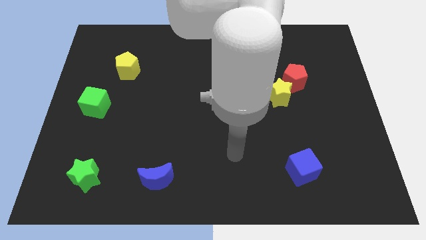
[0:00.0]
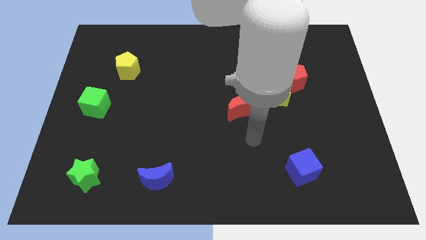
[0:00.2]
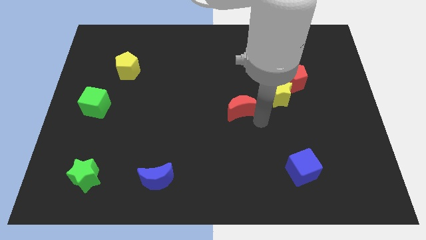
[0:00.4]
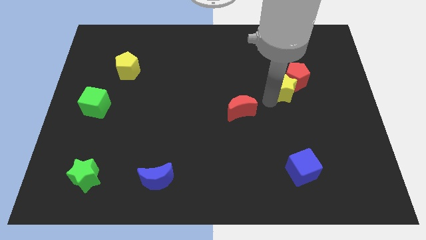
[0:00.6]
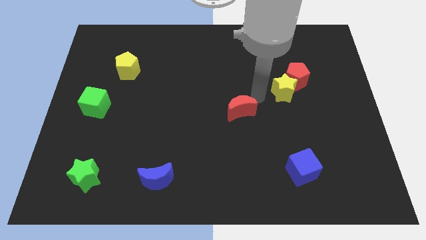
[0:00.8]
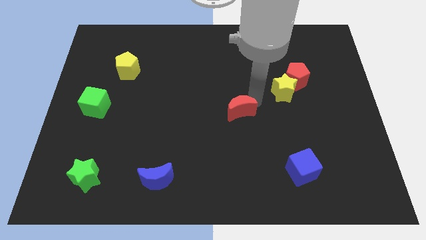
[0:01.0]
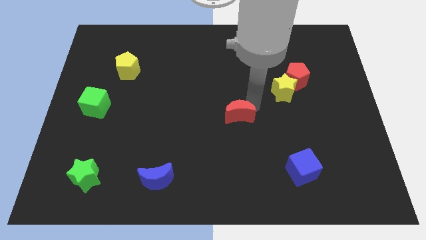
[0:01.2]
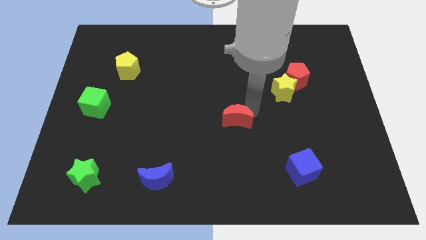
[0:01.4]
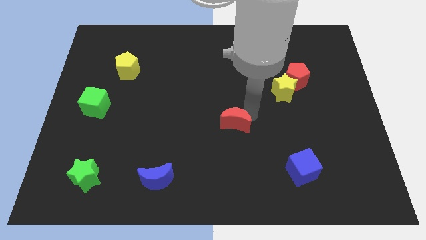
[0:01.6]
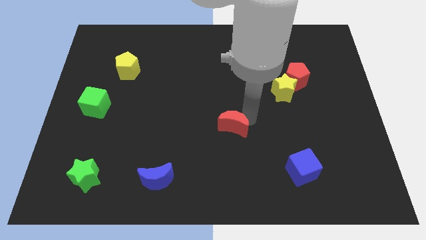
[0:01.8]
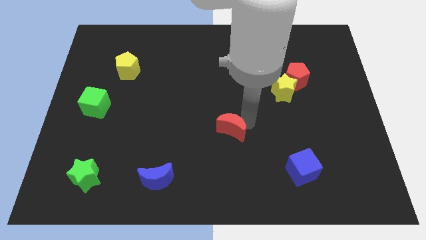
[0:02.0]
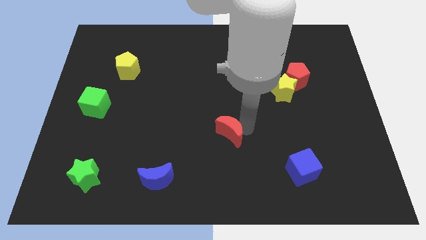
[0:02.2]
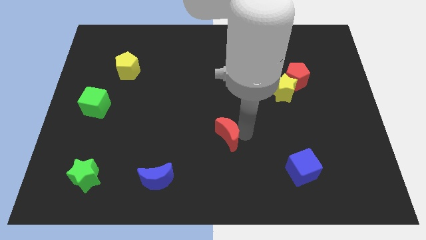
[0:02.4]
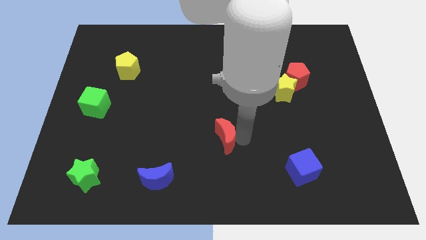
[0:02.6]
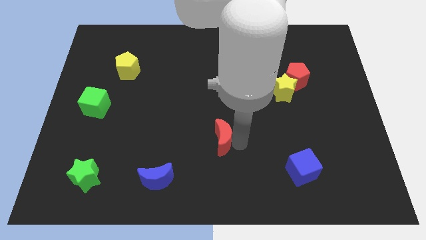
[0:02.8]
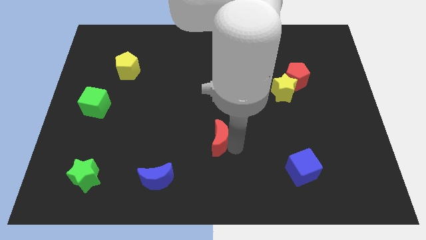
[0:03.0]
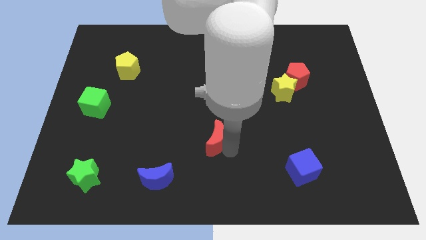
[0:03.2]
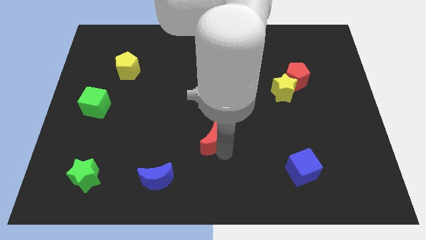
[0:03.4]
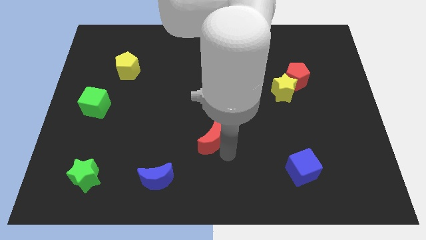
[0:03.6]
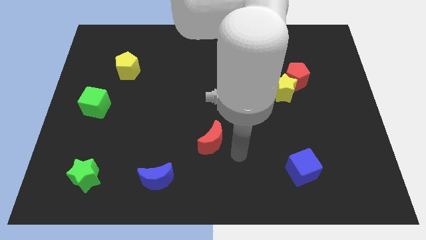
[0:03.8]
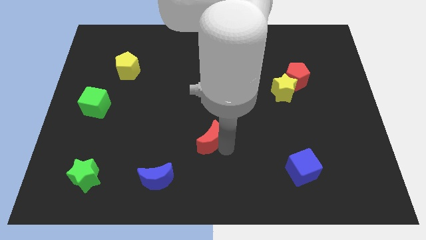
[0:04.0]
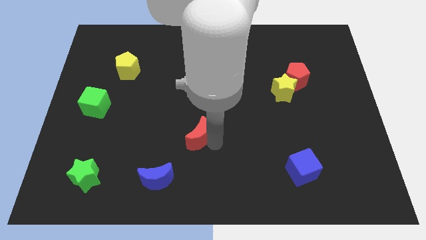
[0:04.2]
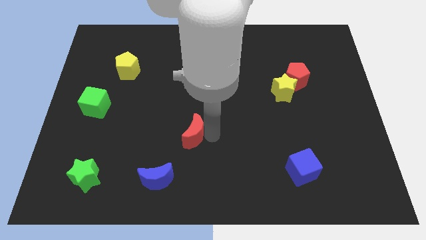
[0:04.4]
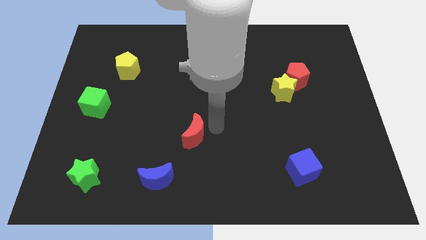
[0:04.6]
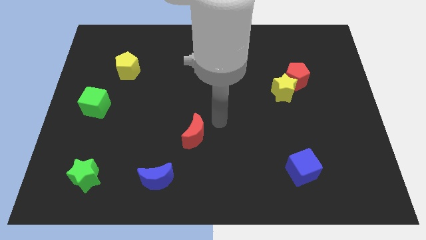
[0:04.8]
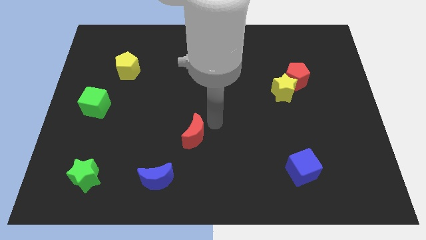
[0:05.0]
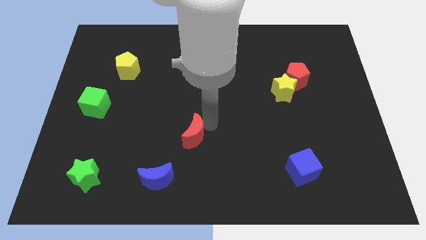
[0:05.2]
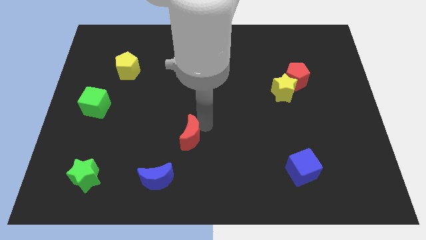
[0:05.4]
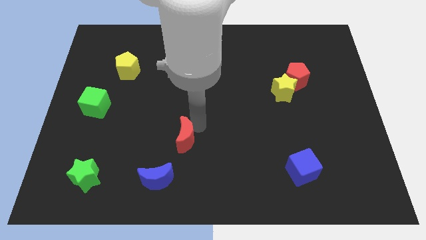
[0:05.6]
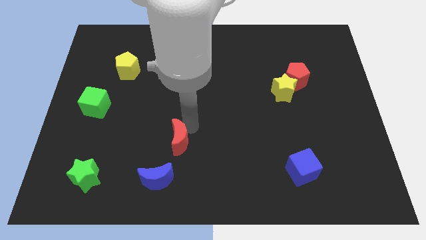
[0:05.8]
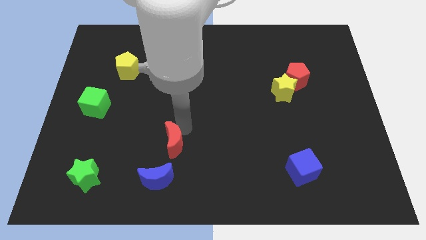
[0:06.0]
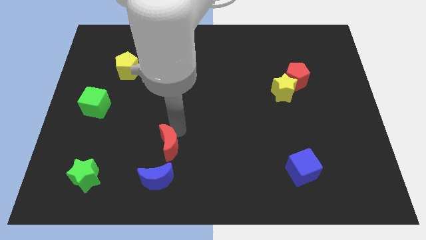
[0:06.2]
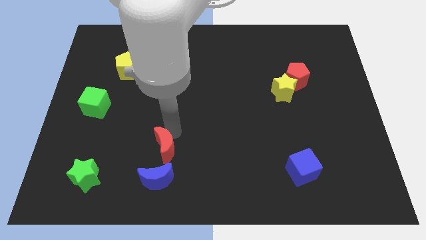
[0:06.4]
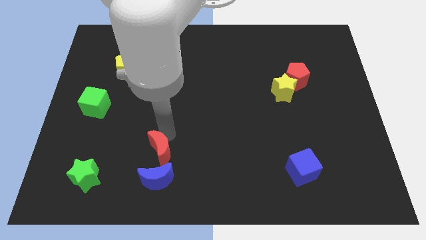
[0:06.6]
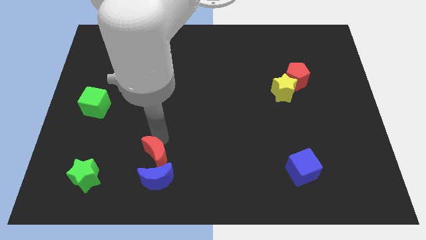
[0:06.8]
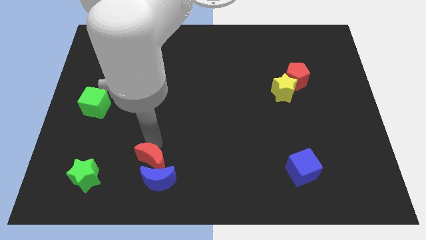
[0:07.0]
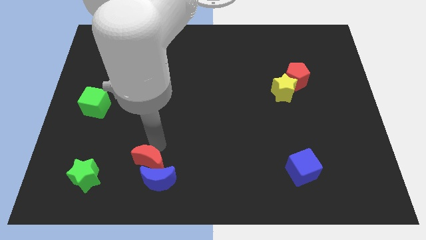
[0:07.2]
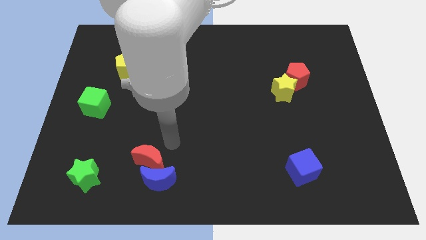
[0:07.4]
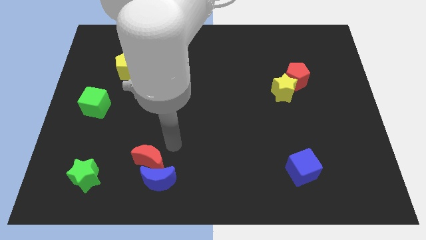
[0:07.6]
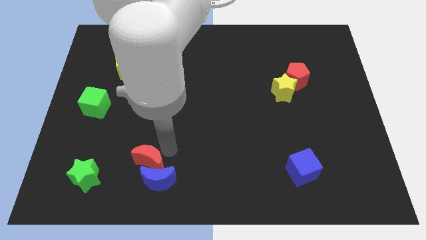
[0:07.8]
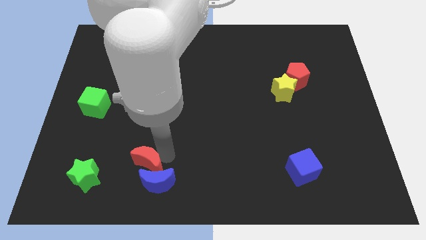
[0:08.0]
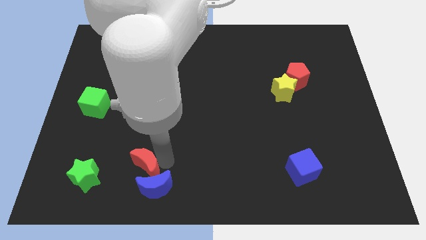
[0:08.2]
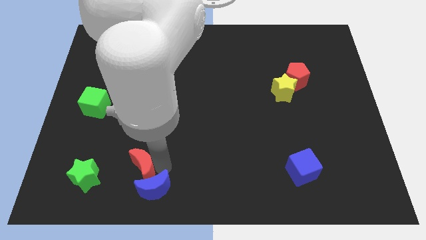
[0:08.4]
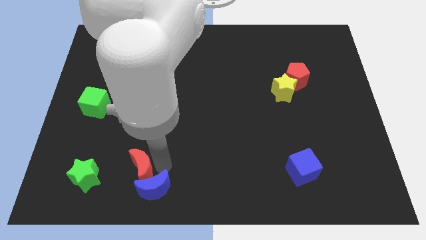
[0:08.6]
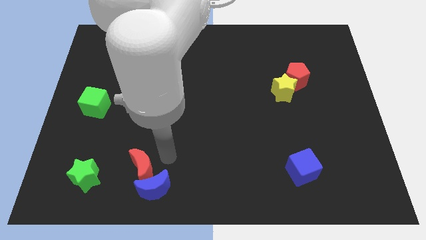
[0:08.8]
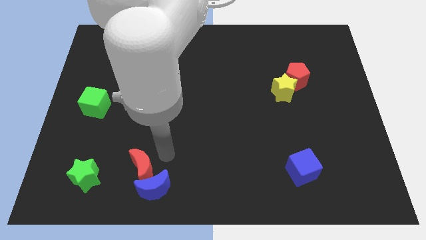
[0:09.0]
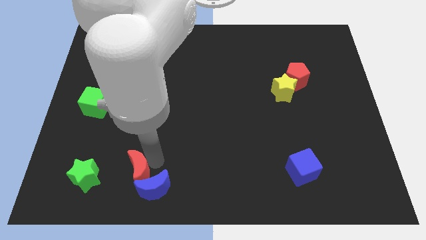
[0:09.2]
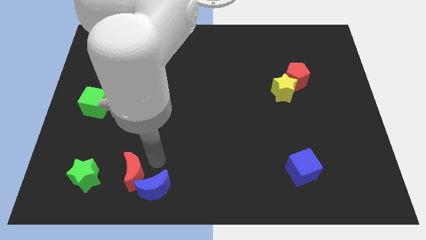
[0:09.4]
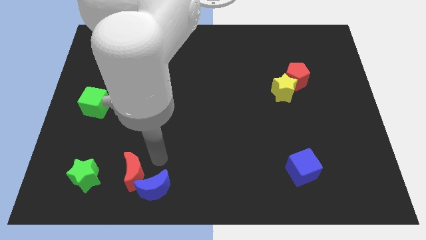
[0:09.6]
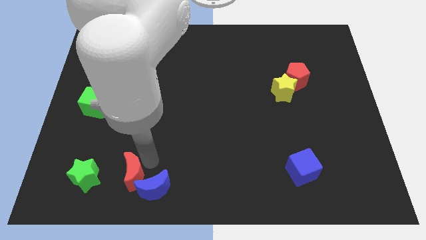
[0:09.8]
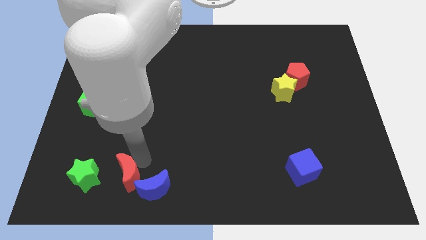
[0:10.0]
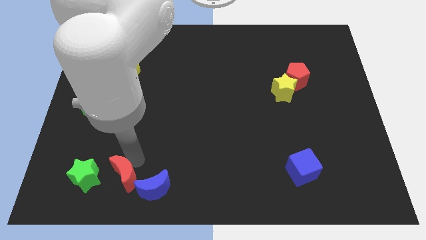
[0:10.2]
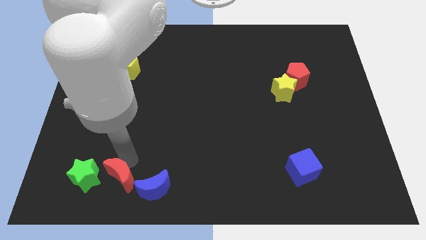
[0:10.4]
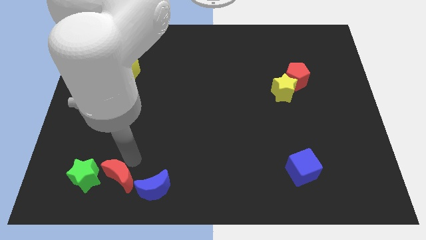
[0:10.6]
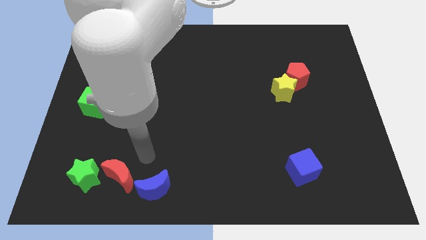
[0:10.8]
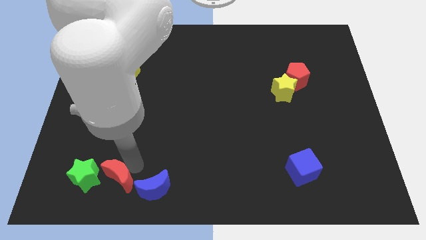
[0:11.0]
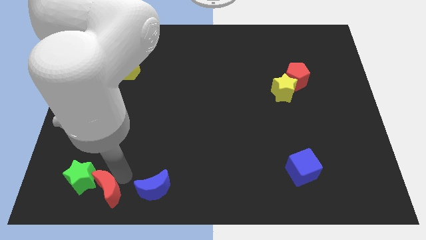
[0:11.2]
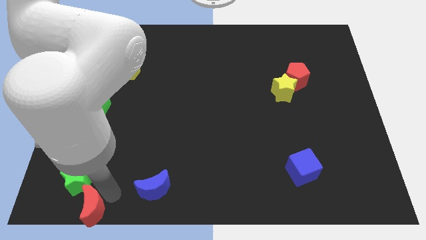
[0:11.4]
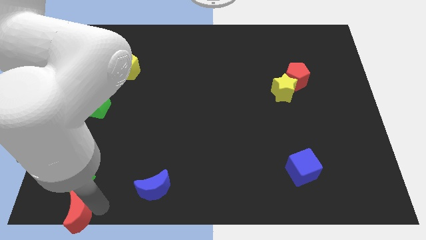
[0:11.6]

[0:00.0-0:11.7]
slide the red moon to the bottom left corner

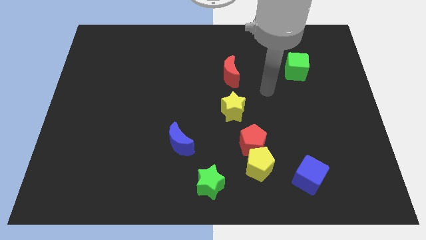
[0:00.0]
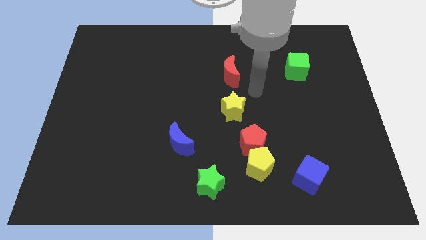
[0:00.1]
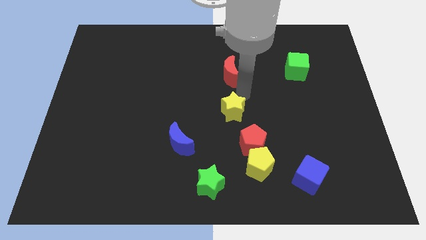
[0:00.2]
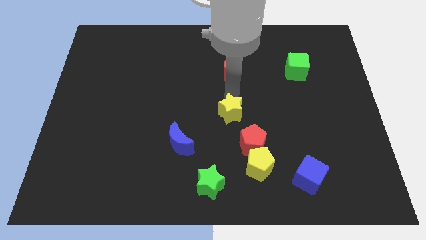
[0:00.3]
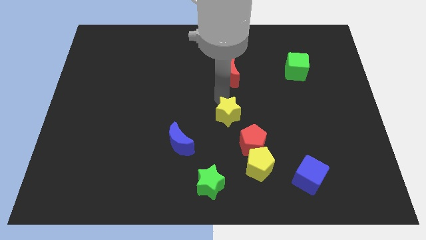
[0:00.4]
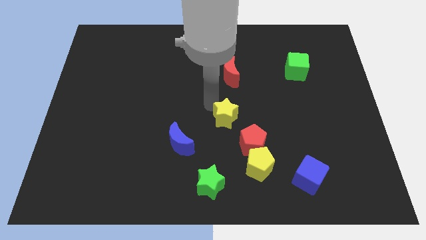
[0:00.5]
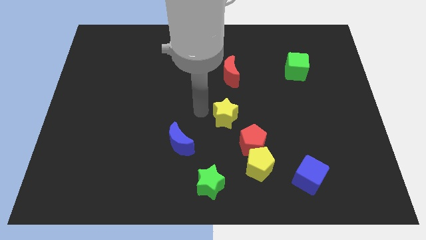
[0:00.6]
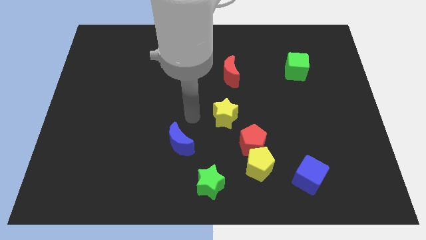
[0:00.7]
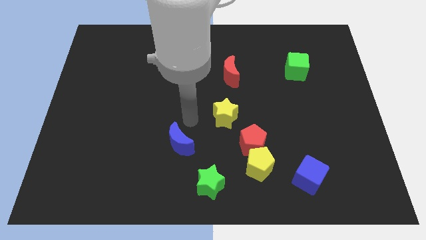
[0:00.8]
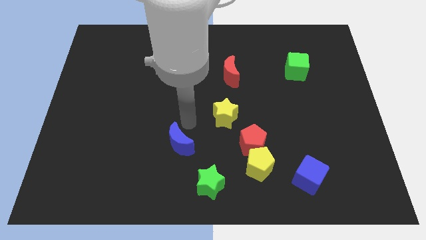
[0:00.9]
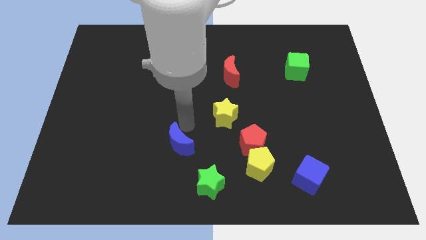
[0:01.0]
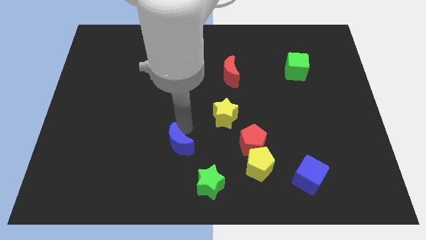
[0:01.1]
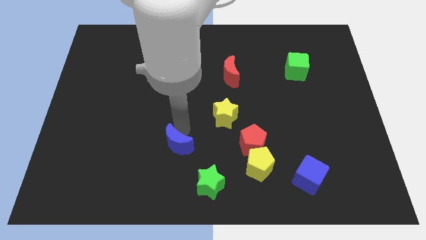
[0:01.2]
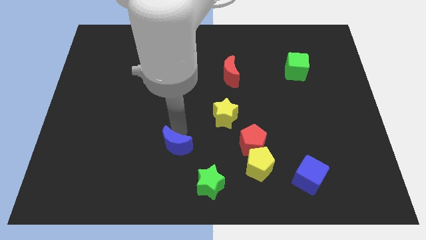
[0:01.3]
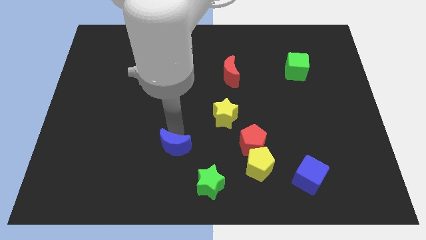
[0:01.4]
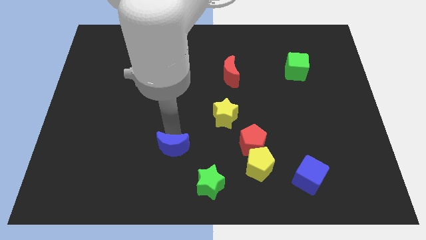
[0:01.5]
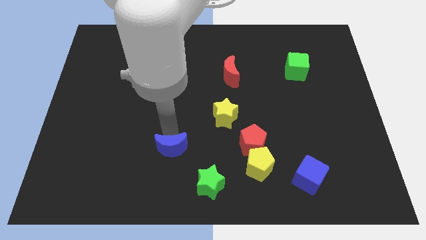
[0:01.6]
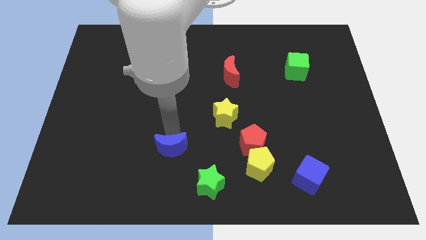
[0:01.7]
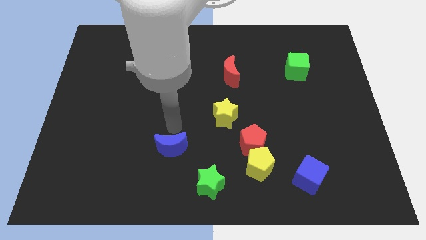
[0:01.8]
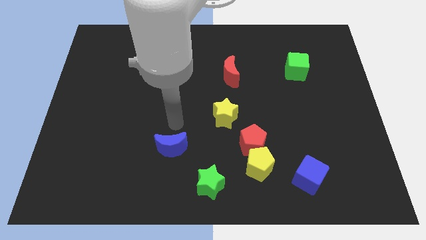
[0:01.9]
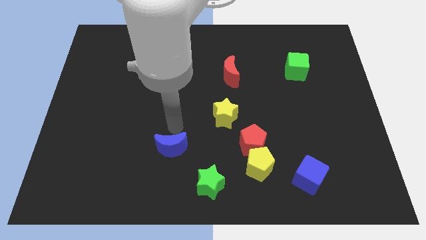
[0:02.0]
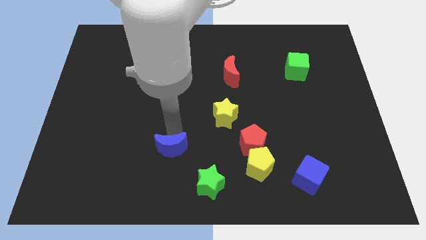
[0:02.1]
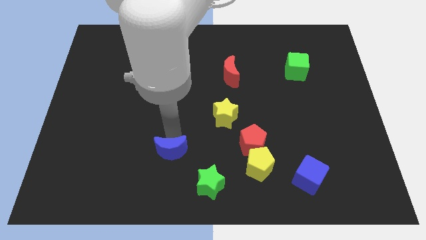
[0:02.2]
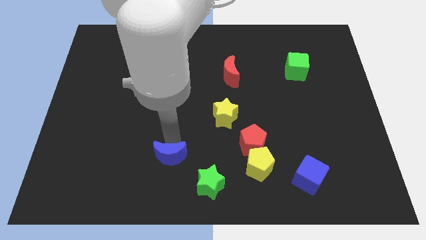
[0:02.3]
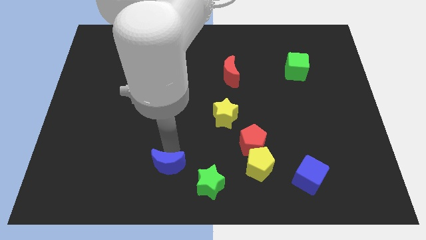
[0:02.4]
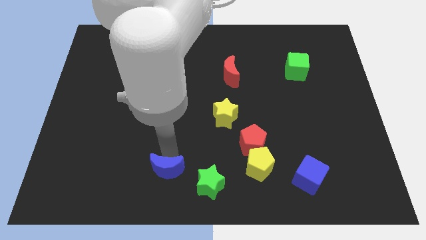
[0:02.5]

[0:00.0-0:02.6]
move the blue moon to the bottom
